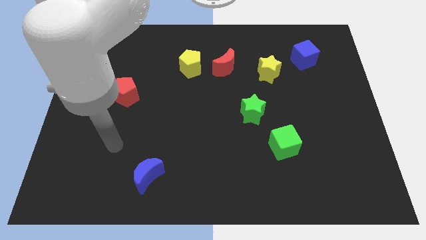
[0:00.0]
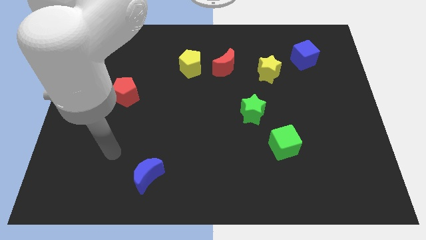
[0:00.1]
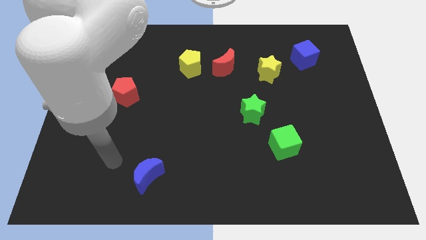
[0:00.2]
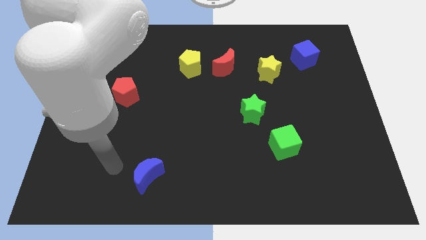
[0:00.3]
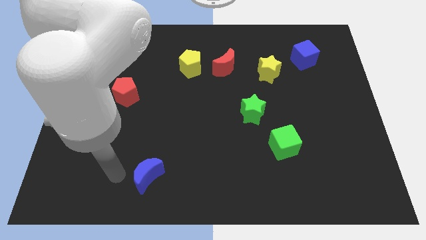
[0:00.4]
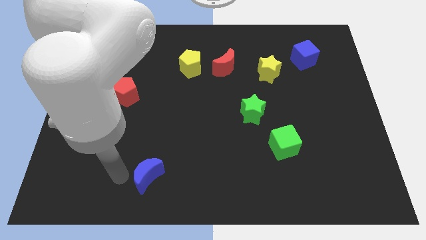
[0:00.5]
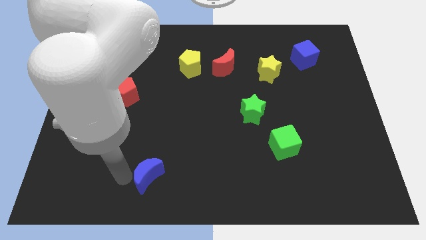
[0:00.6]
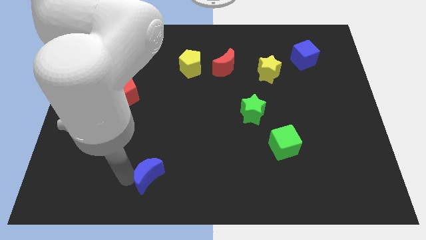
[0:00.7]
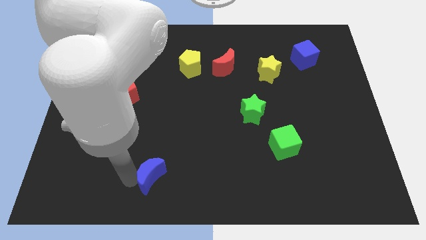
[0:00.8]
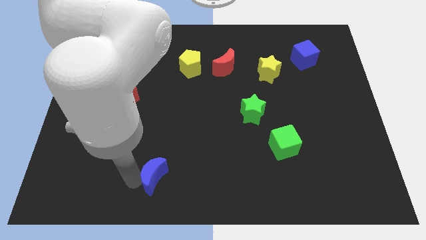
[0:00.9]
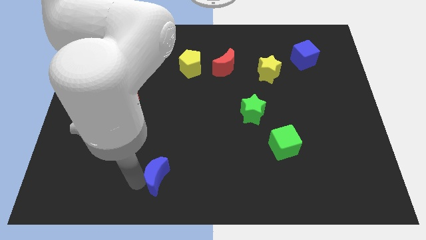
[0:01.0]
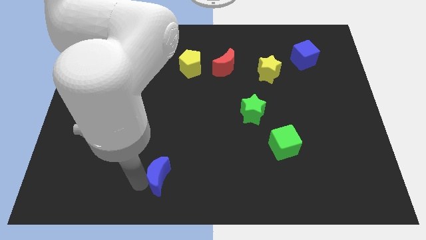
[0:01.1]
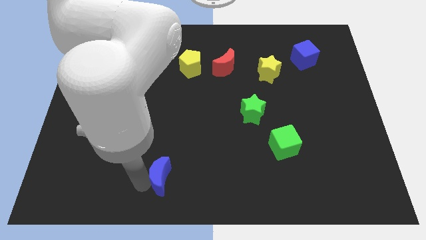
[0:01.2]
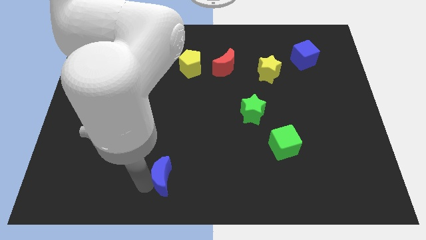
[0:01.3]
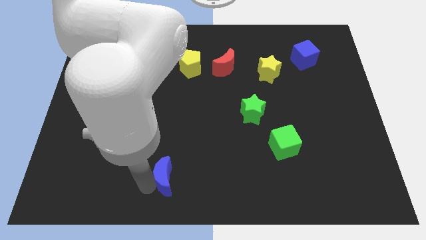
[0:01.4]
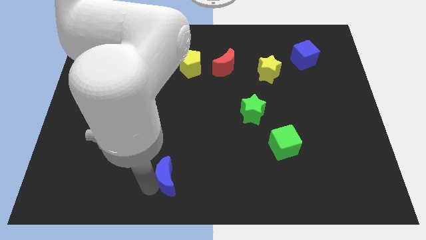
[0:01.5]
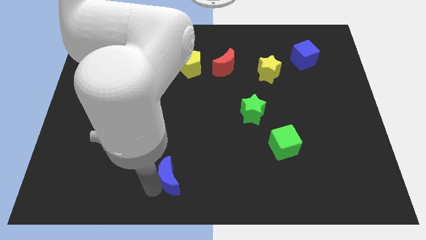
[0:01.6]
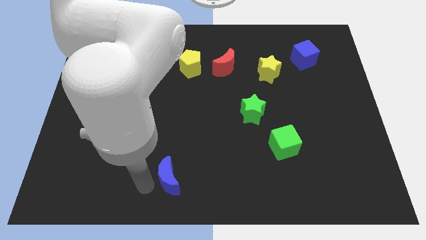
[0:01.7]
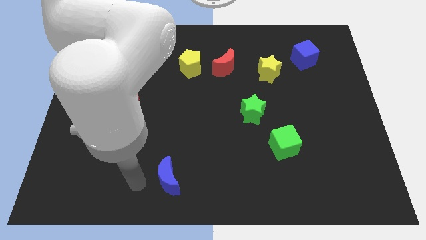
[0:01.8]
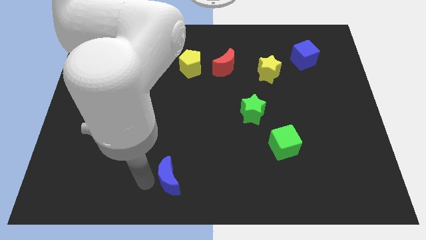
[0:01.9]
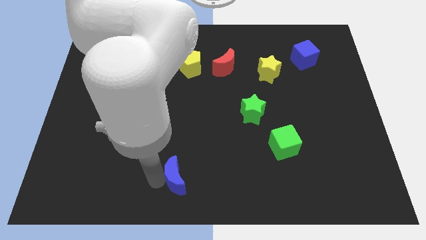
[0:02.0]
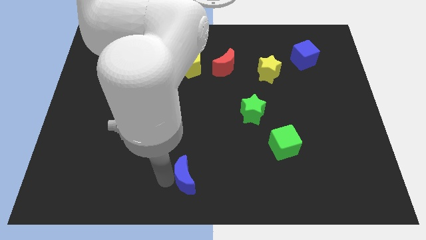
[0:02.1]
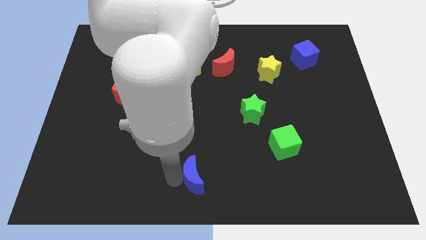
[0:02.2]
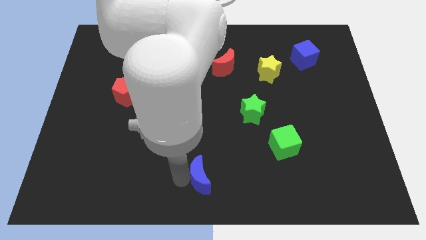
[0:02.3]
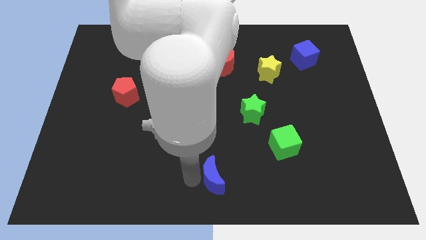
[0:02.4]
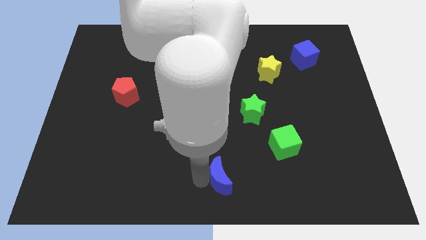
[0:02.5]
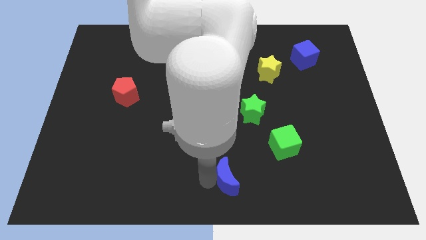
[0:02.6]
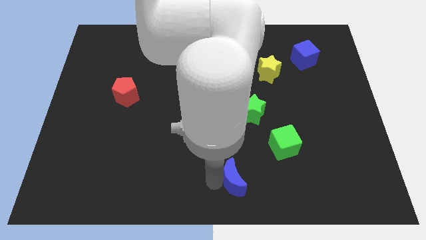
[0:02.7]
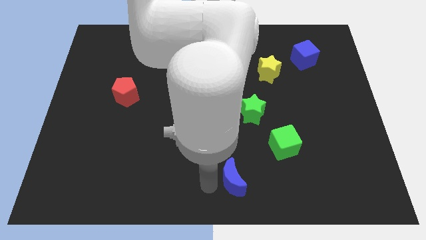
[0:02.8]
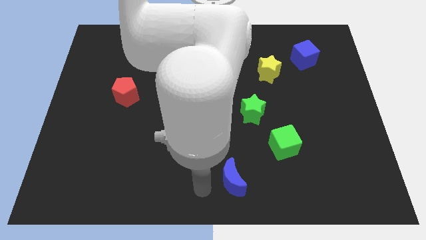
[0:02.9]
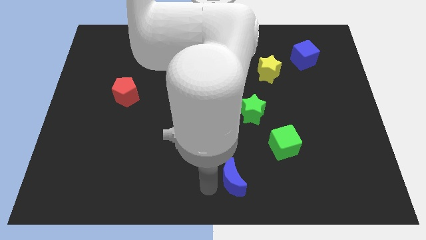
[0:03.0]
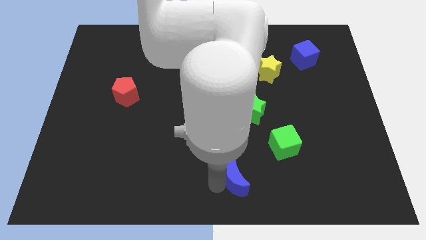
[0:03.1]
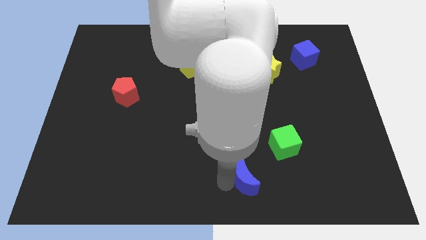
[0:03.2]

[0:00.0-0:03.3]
move the blue moon right

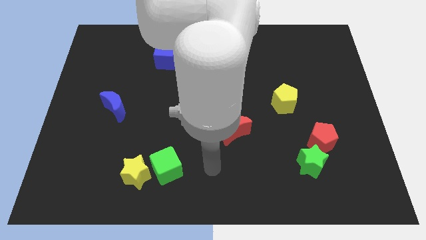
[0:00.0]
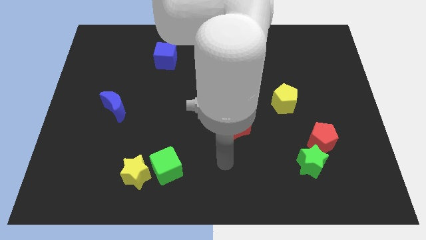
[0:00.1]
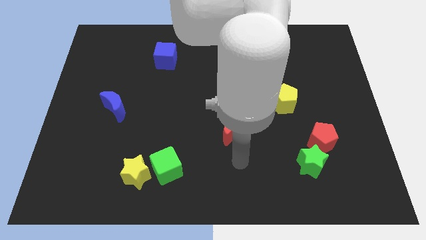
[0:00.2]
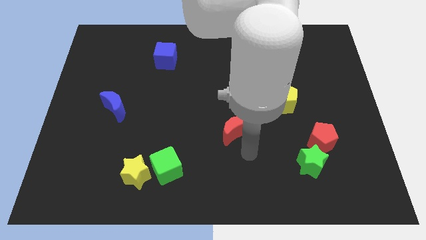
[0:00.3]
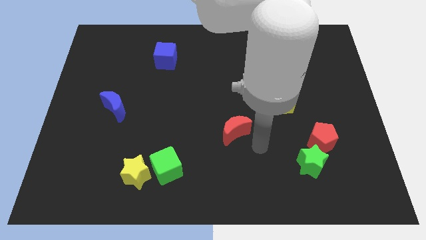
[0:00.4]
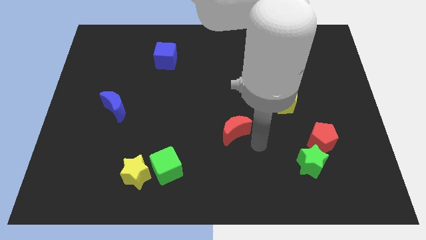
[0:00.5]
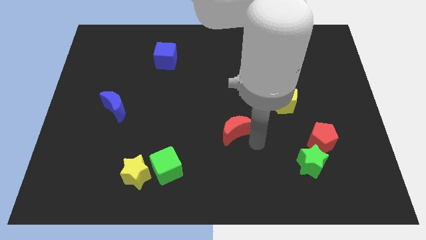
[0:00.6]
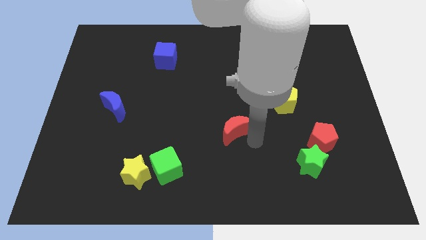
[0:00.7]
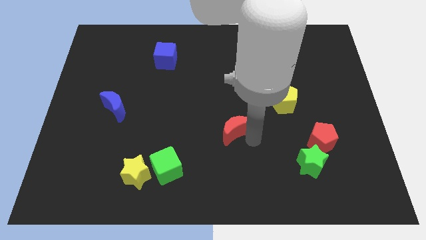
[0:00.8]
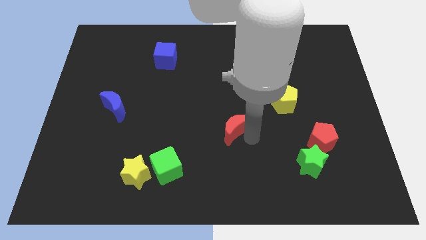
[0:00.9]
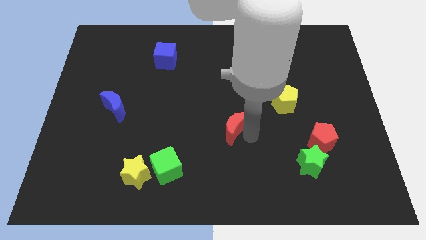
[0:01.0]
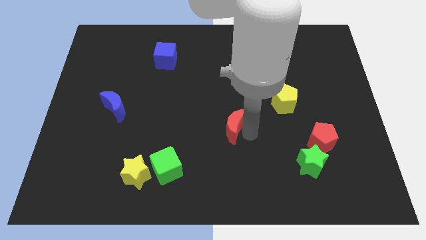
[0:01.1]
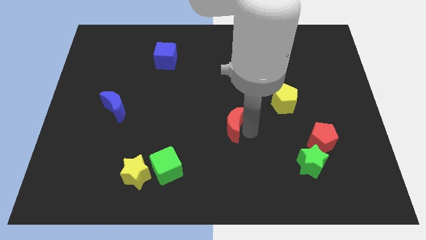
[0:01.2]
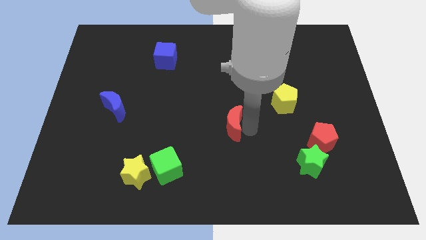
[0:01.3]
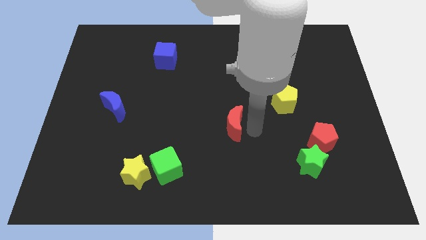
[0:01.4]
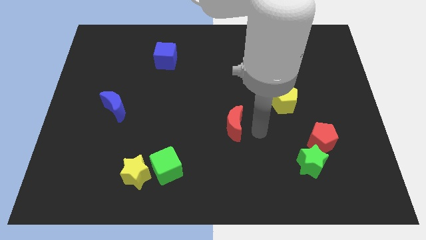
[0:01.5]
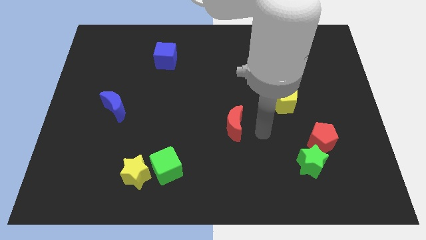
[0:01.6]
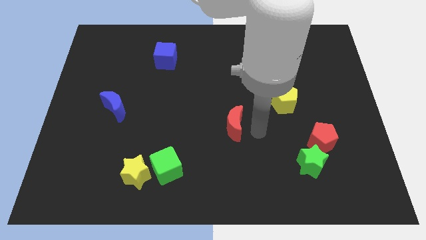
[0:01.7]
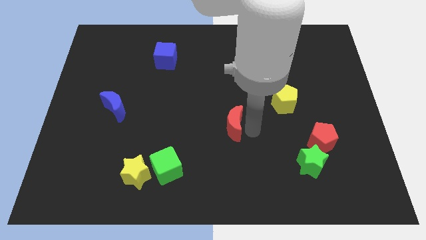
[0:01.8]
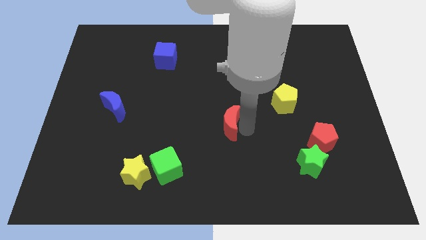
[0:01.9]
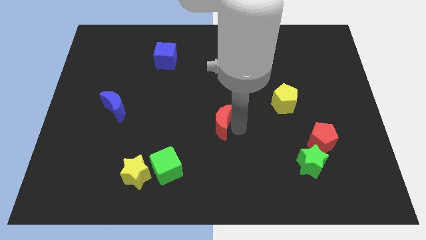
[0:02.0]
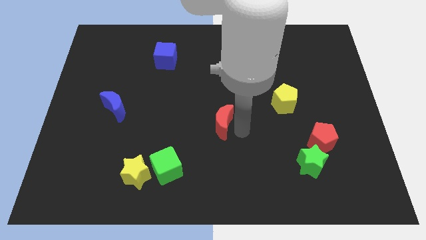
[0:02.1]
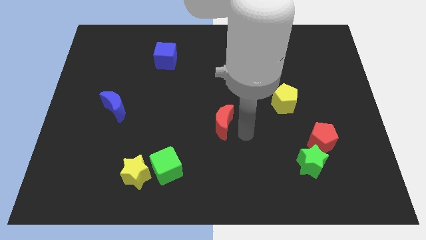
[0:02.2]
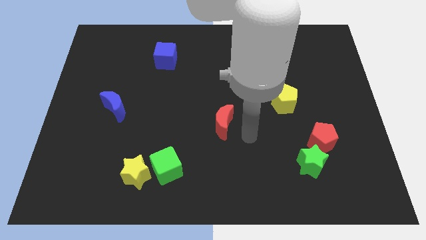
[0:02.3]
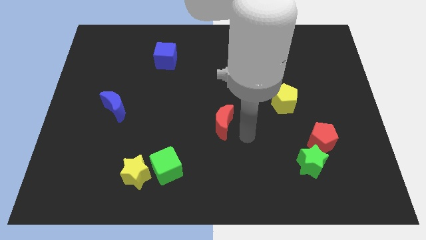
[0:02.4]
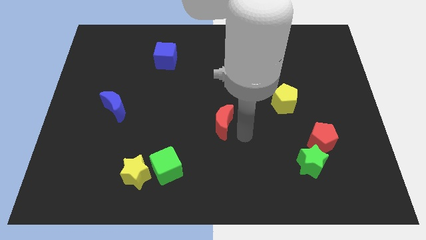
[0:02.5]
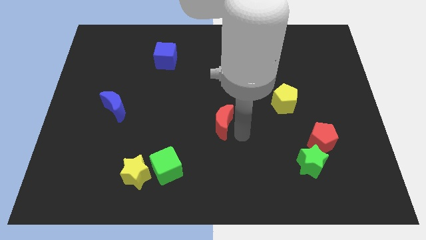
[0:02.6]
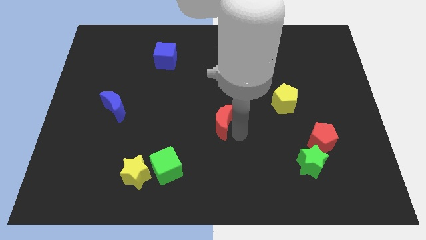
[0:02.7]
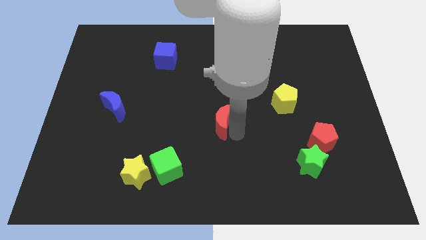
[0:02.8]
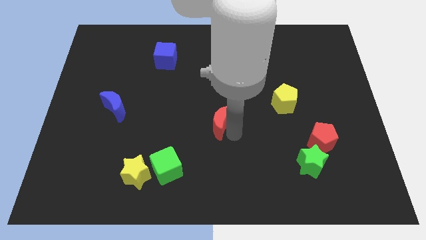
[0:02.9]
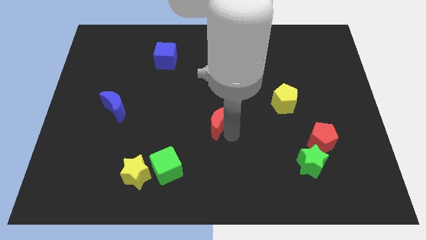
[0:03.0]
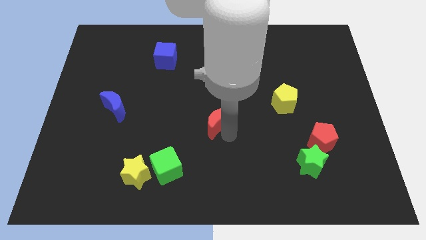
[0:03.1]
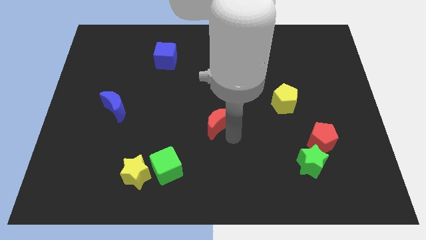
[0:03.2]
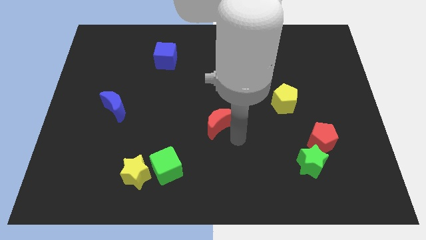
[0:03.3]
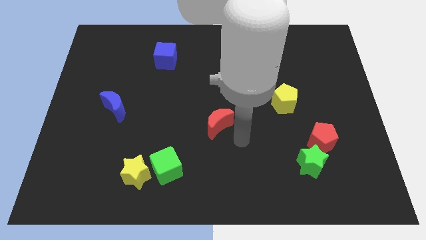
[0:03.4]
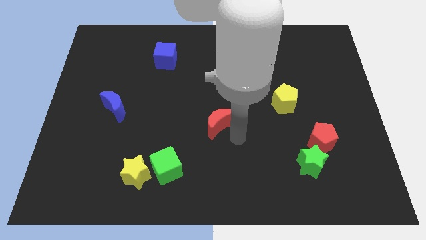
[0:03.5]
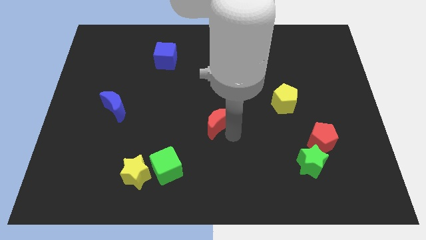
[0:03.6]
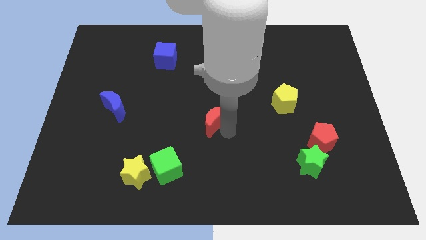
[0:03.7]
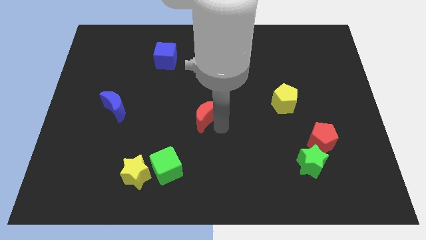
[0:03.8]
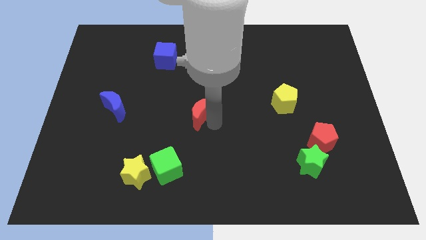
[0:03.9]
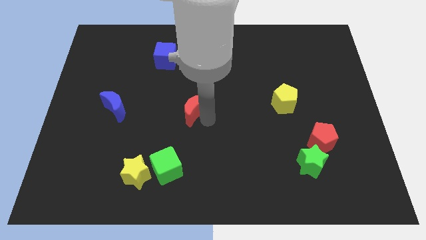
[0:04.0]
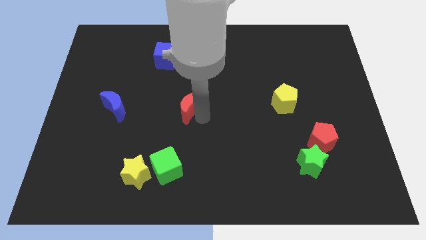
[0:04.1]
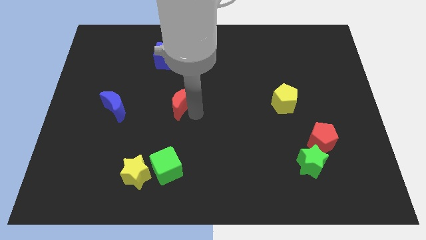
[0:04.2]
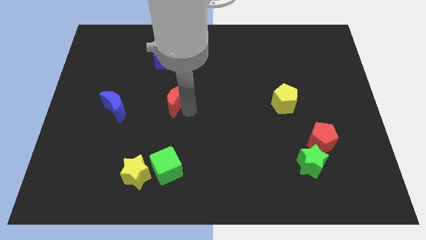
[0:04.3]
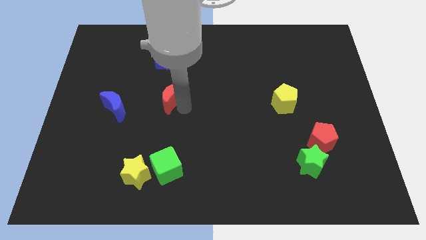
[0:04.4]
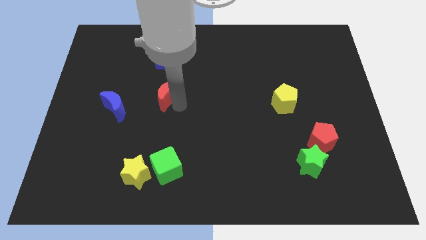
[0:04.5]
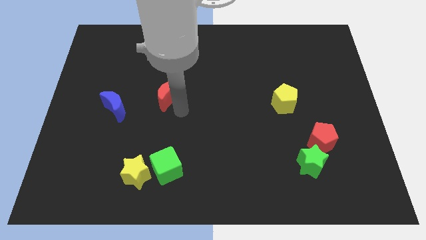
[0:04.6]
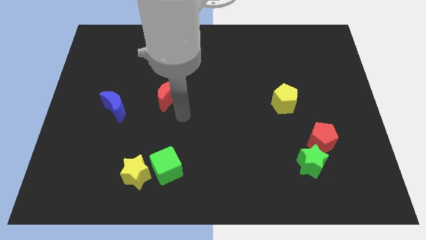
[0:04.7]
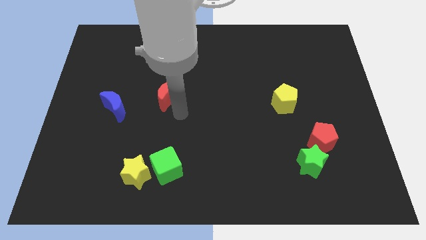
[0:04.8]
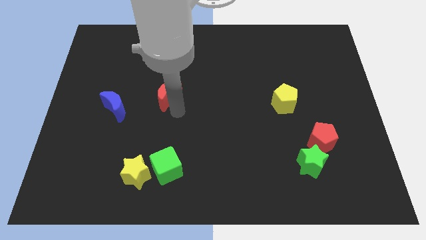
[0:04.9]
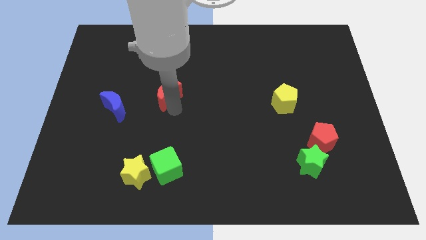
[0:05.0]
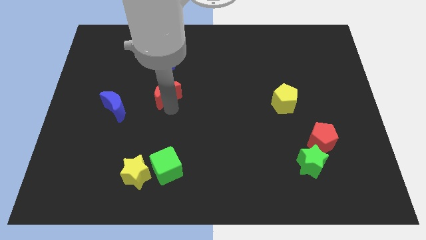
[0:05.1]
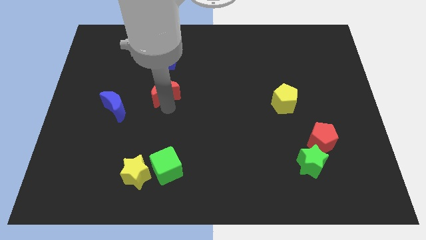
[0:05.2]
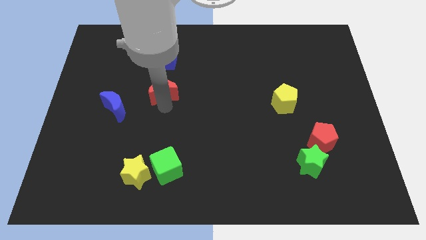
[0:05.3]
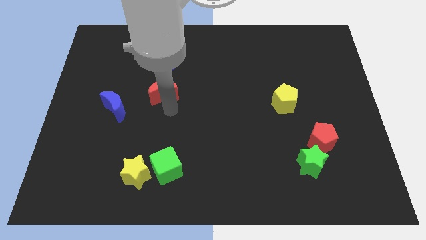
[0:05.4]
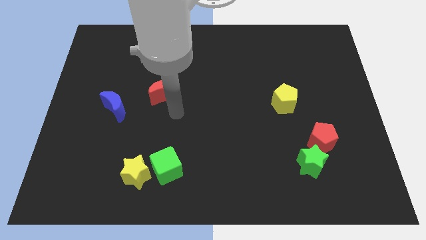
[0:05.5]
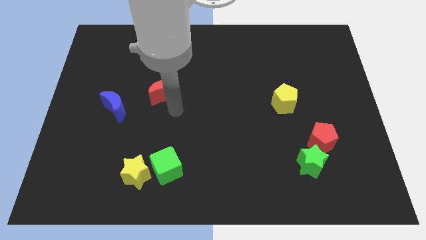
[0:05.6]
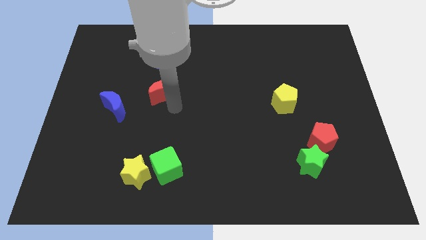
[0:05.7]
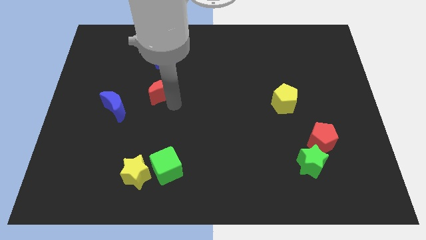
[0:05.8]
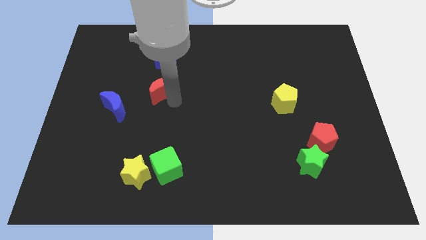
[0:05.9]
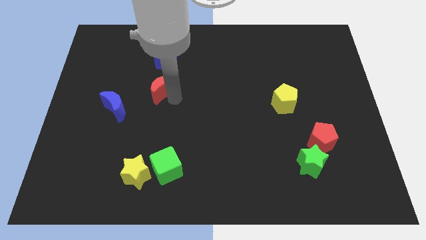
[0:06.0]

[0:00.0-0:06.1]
move the red moon up and to the left
